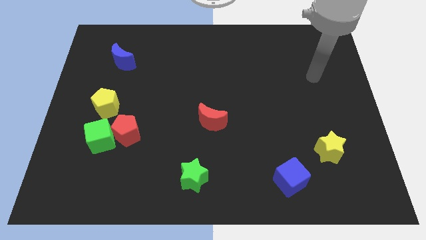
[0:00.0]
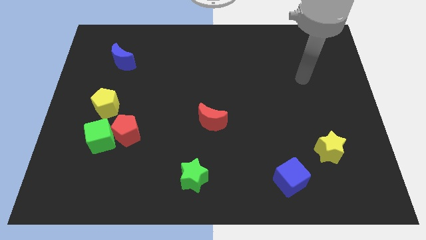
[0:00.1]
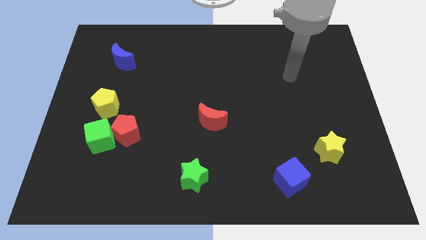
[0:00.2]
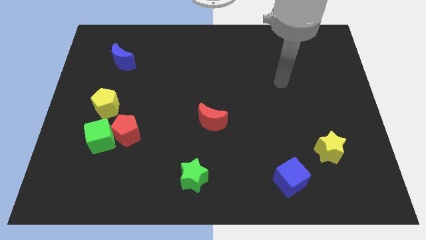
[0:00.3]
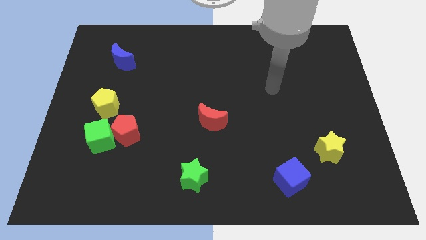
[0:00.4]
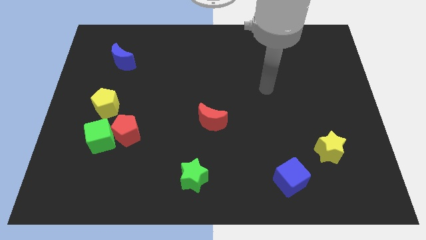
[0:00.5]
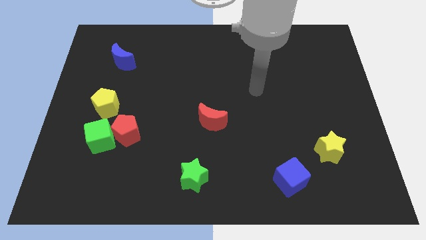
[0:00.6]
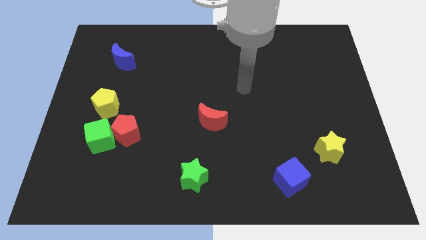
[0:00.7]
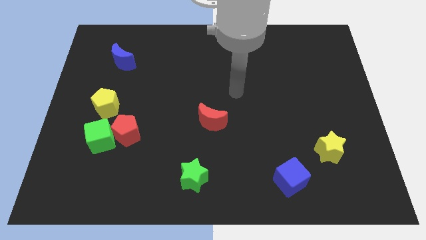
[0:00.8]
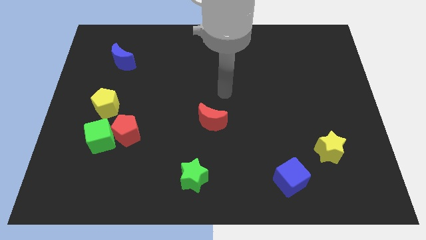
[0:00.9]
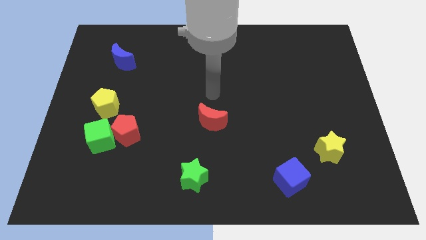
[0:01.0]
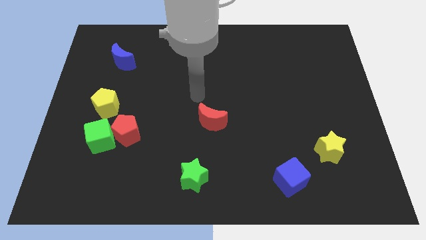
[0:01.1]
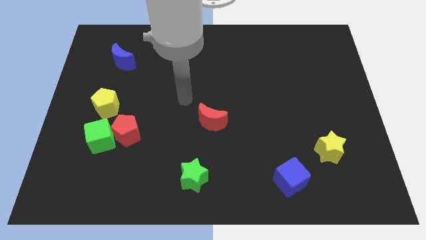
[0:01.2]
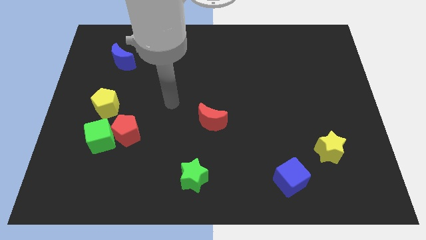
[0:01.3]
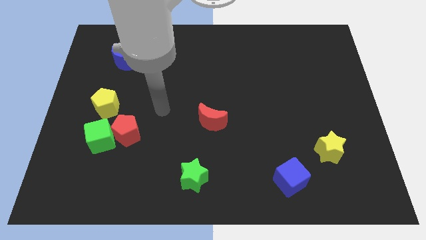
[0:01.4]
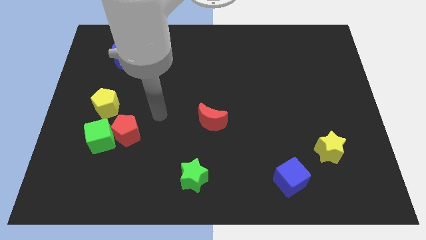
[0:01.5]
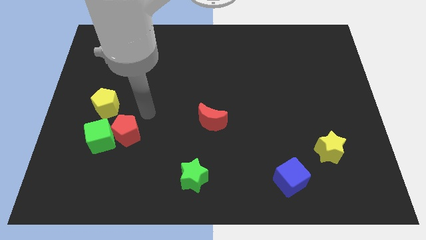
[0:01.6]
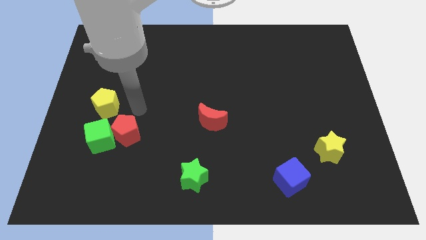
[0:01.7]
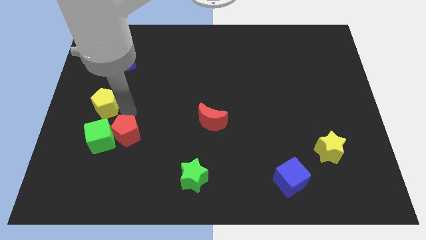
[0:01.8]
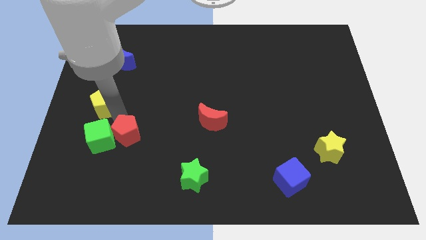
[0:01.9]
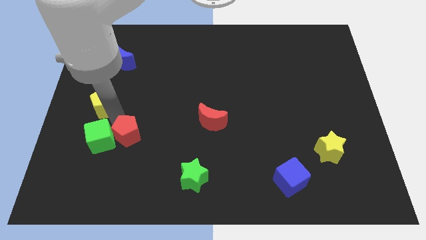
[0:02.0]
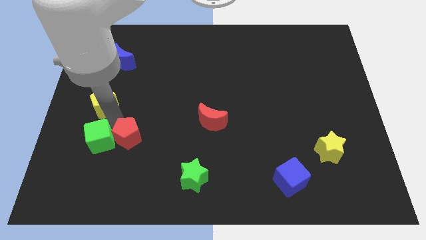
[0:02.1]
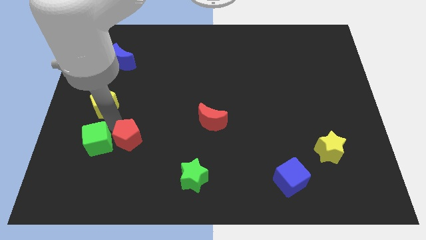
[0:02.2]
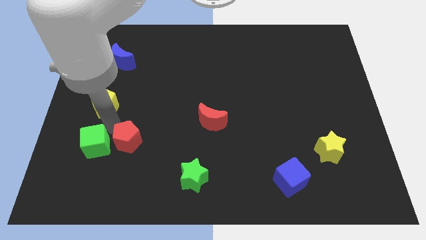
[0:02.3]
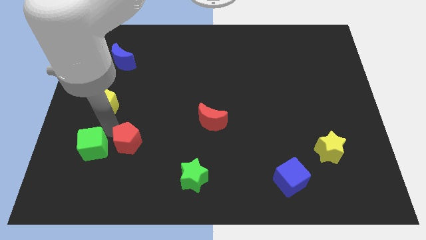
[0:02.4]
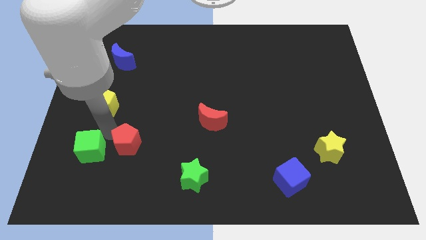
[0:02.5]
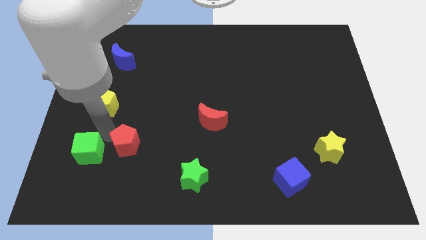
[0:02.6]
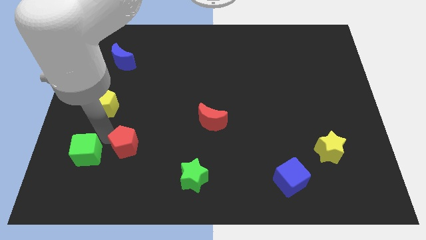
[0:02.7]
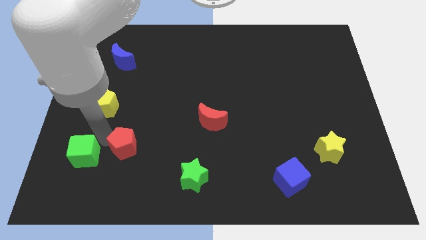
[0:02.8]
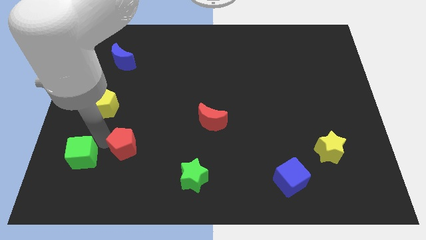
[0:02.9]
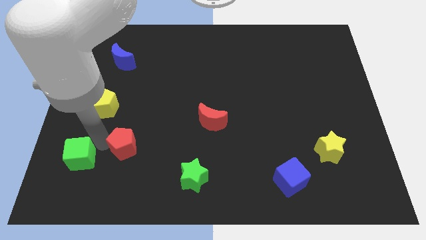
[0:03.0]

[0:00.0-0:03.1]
move the green cube away from the red pentagon and yellow pentagon

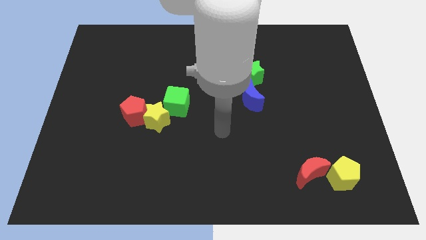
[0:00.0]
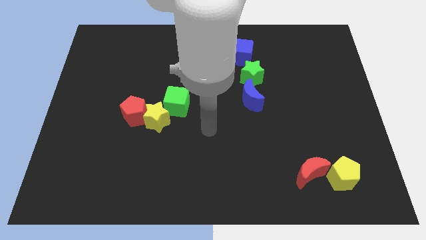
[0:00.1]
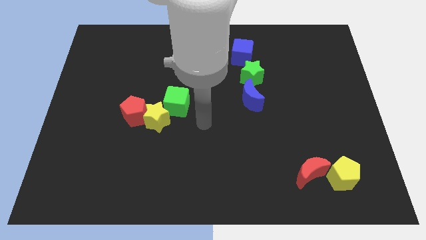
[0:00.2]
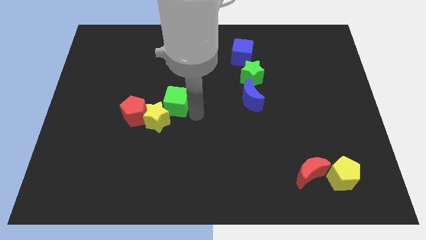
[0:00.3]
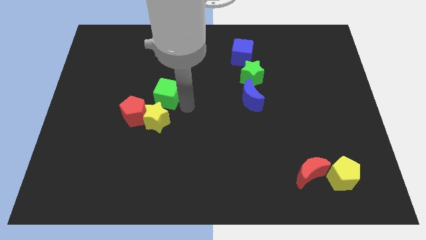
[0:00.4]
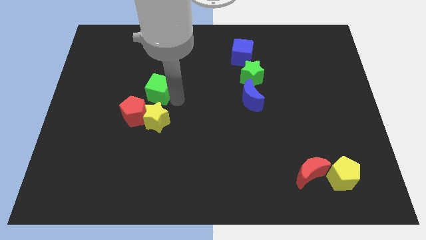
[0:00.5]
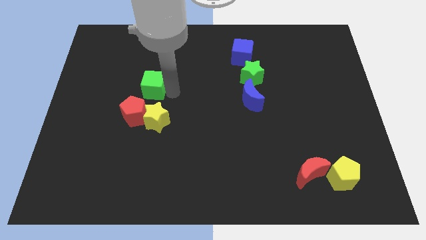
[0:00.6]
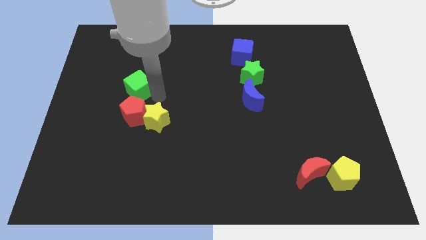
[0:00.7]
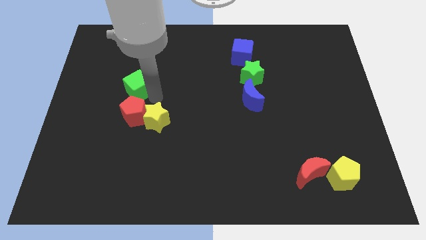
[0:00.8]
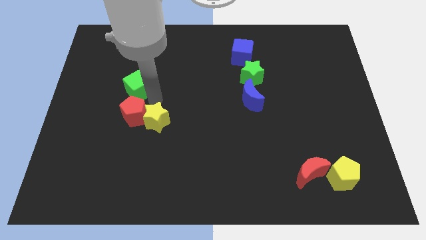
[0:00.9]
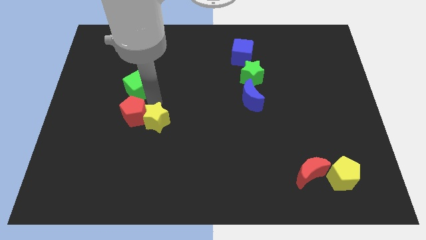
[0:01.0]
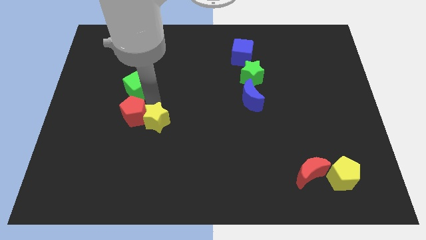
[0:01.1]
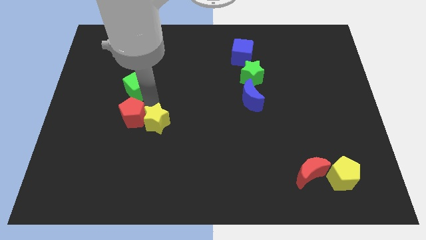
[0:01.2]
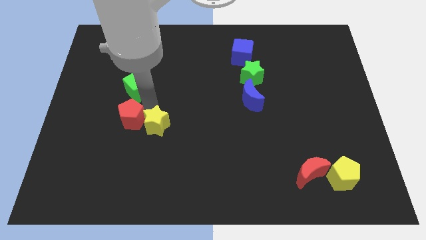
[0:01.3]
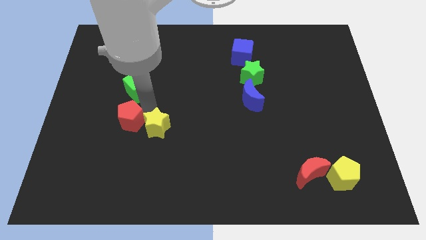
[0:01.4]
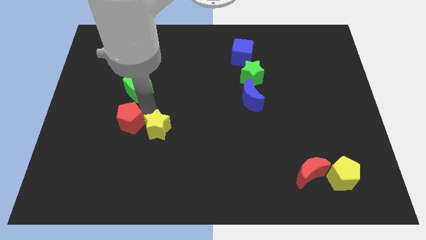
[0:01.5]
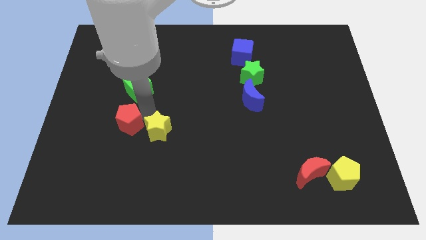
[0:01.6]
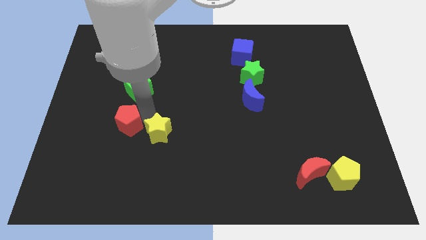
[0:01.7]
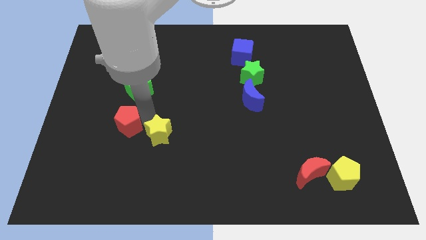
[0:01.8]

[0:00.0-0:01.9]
move the yellow star away from the red pentagon and green cube

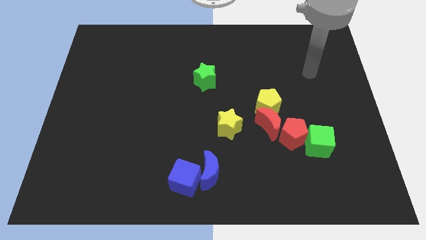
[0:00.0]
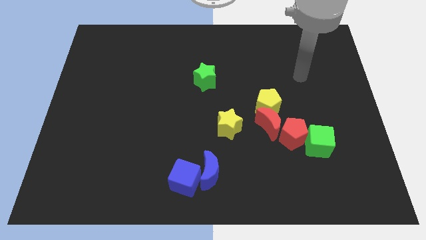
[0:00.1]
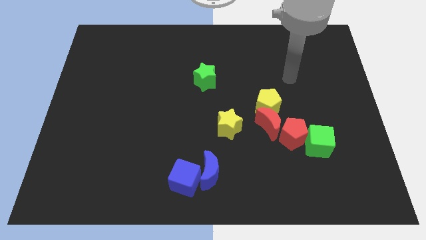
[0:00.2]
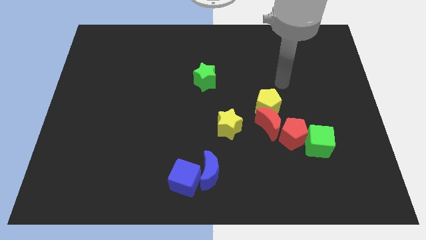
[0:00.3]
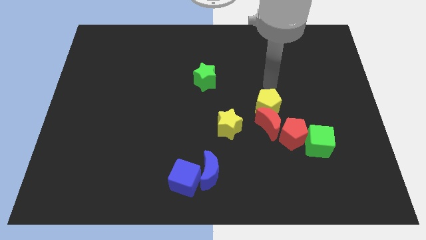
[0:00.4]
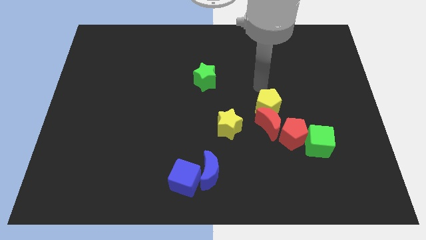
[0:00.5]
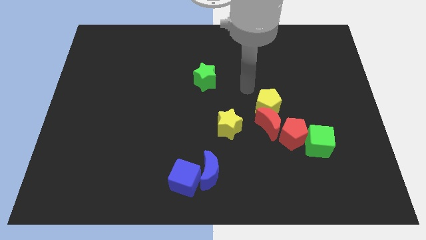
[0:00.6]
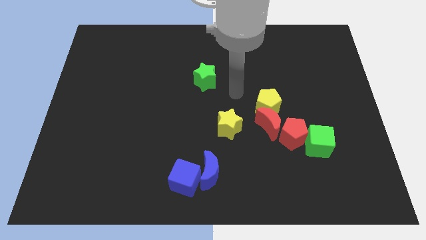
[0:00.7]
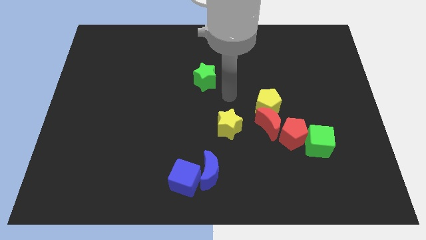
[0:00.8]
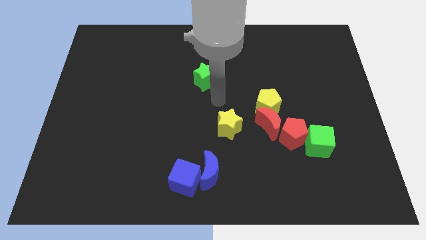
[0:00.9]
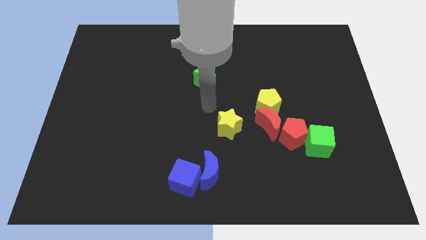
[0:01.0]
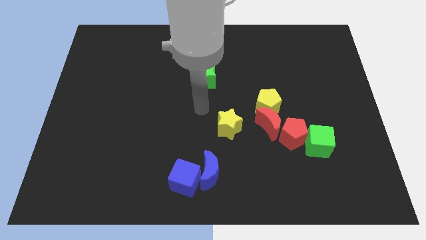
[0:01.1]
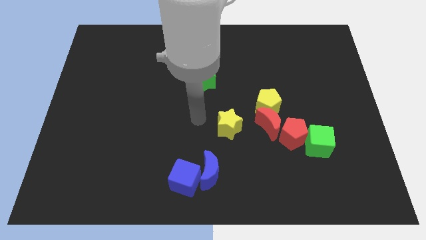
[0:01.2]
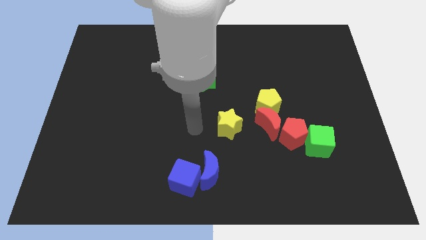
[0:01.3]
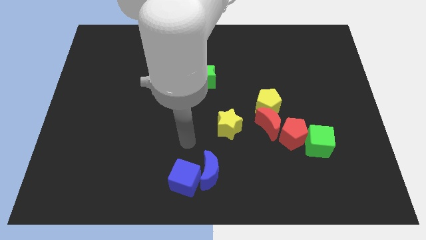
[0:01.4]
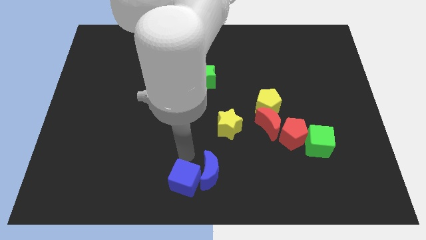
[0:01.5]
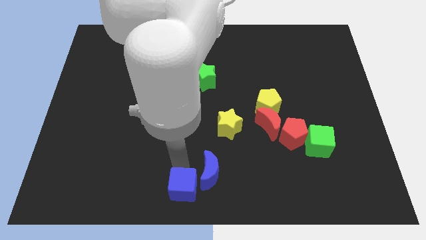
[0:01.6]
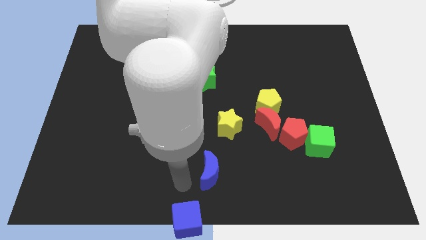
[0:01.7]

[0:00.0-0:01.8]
separate the blue moon from the blue cube

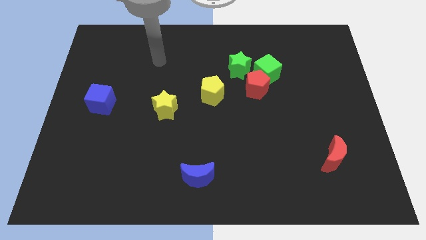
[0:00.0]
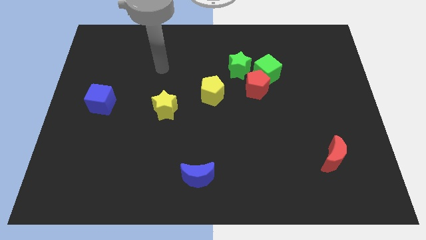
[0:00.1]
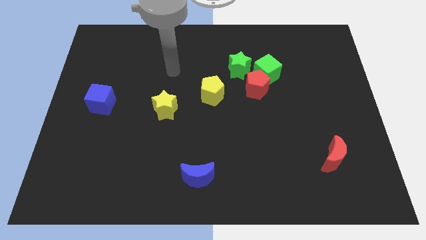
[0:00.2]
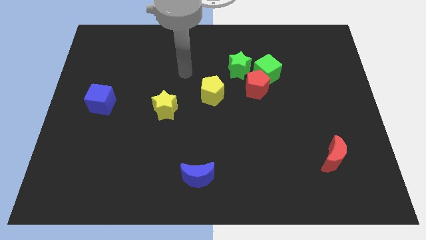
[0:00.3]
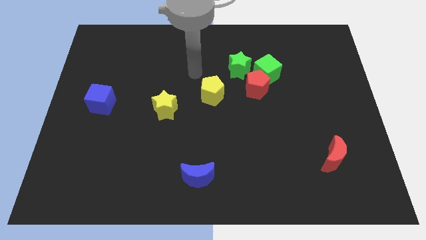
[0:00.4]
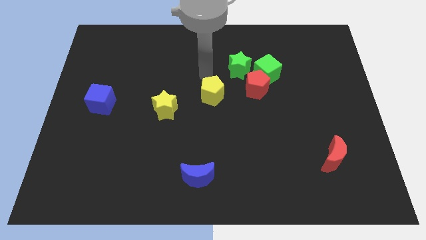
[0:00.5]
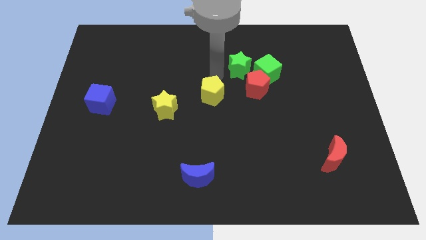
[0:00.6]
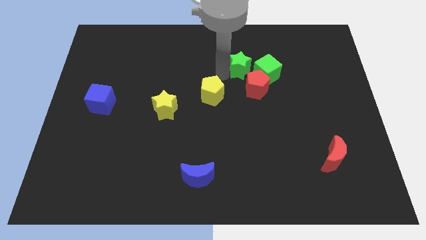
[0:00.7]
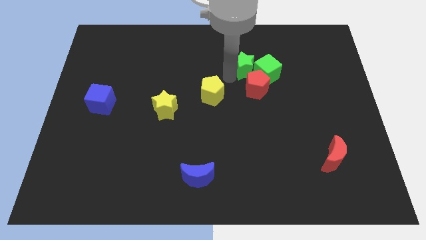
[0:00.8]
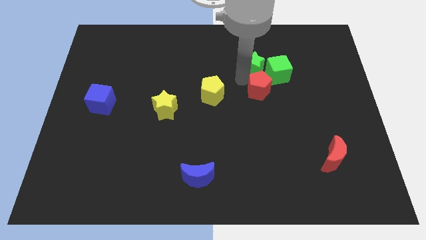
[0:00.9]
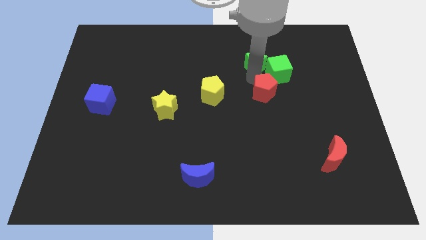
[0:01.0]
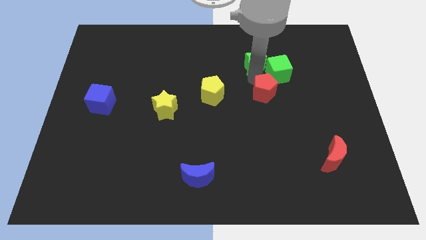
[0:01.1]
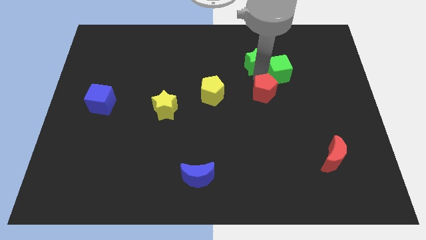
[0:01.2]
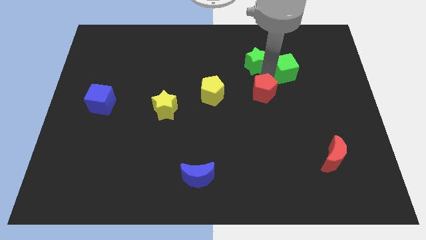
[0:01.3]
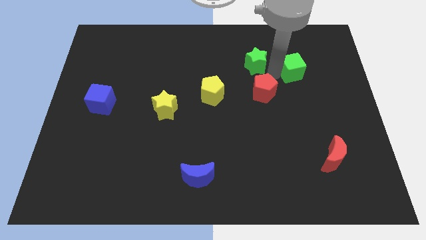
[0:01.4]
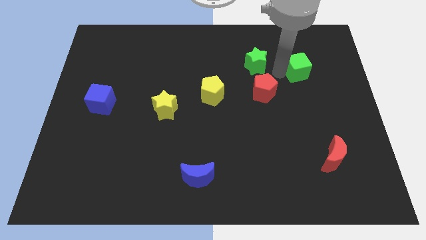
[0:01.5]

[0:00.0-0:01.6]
pull the green cube apart from the red pentagon and green star

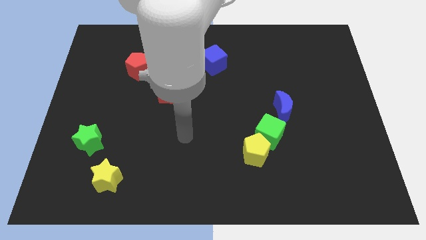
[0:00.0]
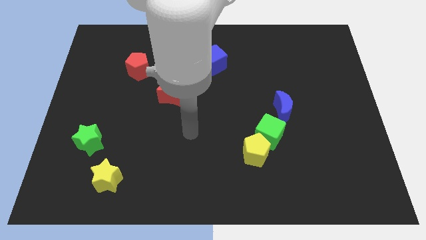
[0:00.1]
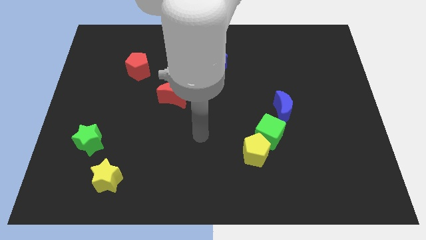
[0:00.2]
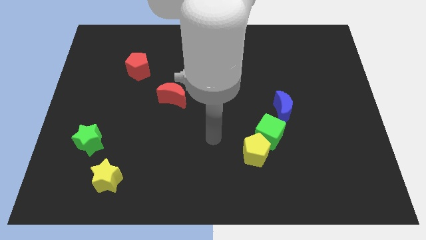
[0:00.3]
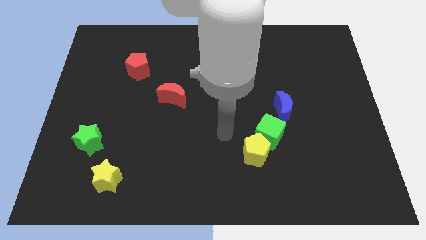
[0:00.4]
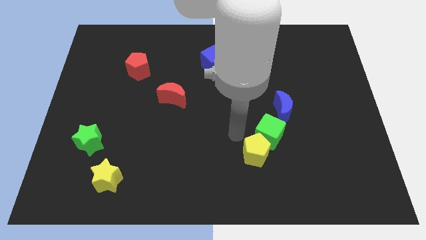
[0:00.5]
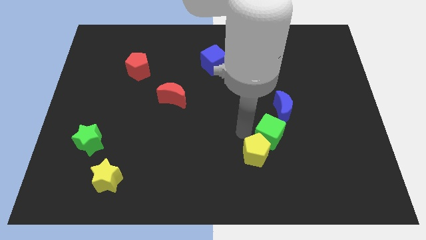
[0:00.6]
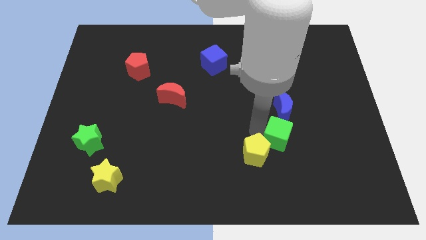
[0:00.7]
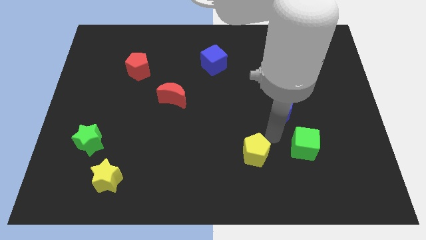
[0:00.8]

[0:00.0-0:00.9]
pull the yellow pentagon apart from the green cube
